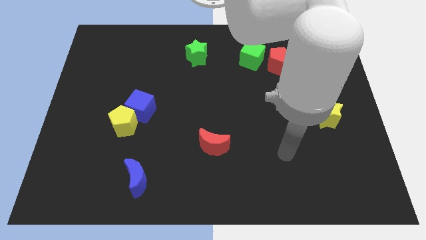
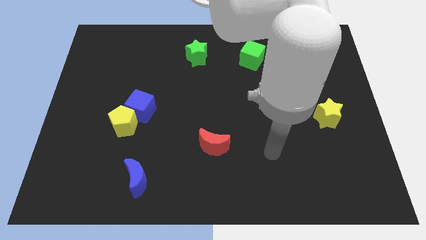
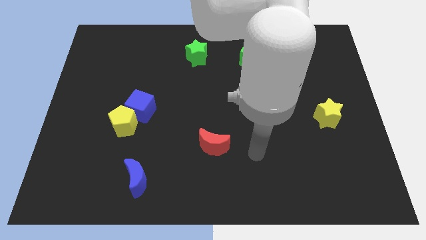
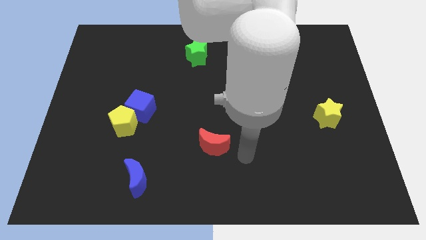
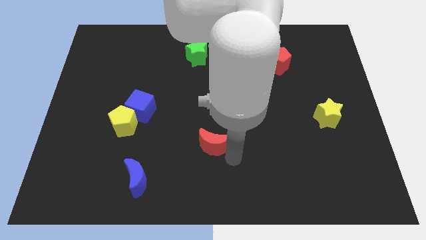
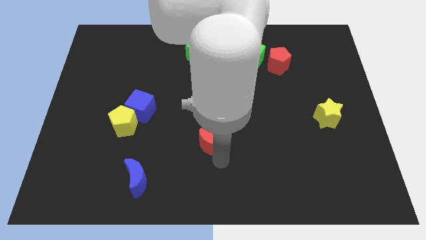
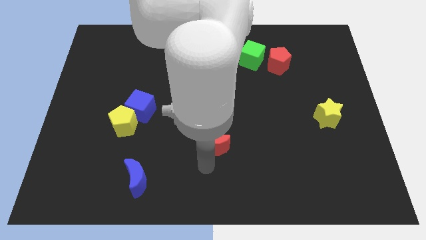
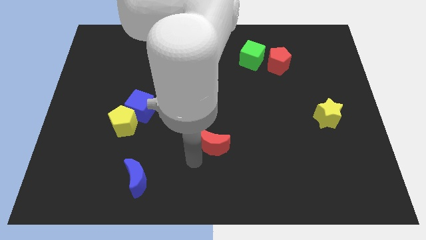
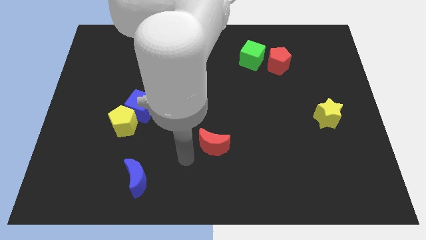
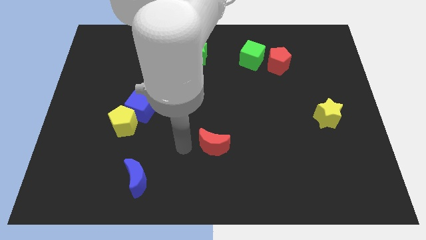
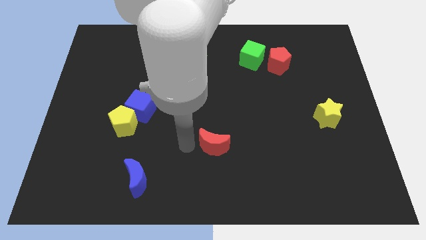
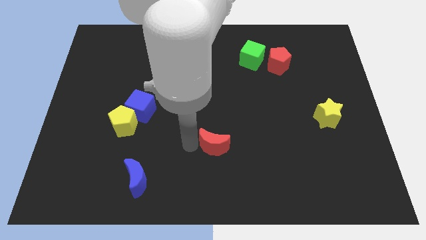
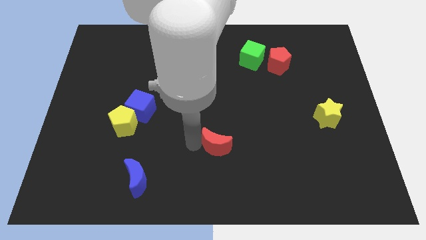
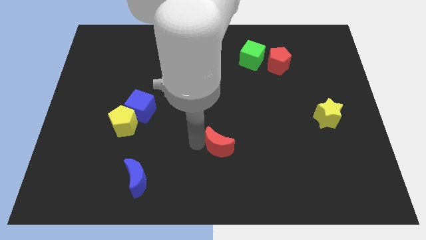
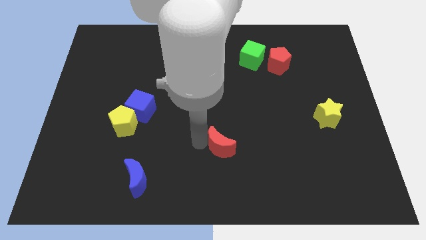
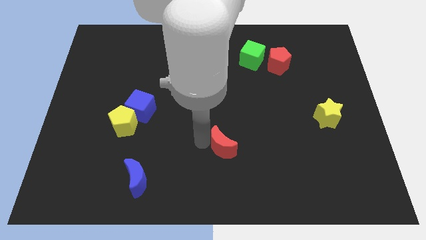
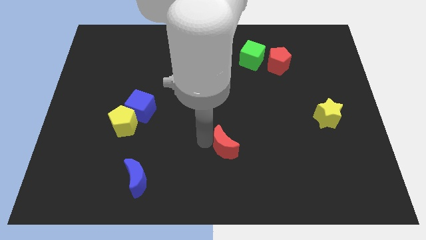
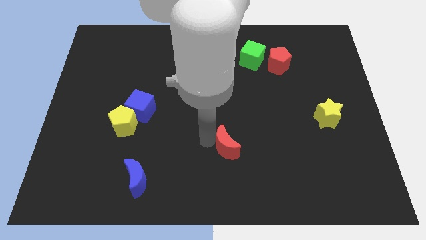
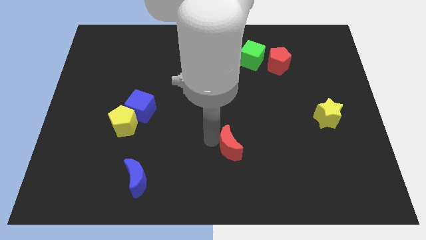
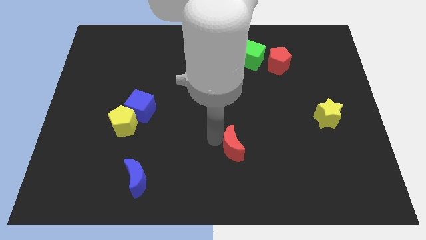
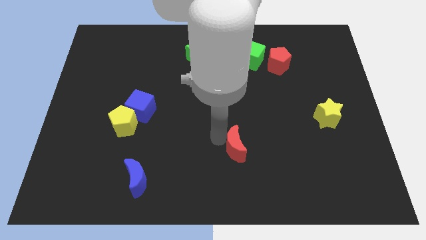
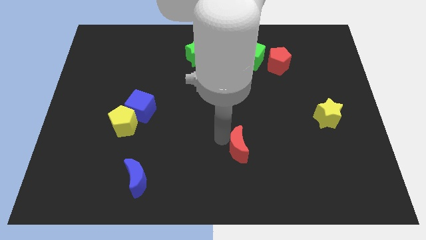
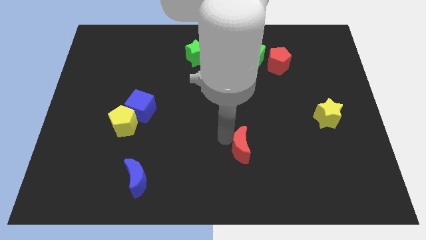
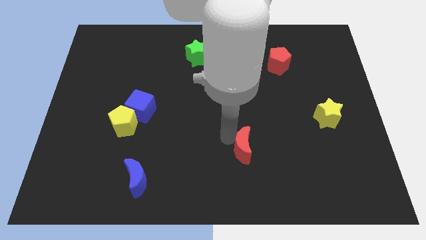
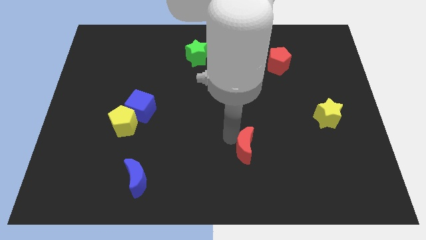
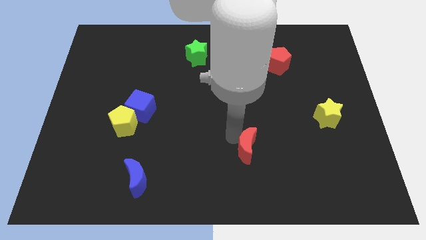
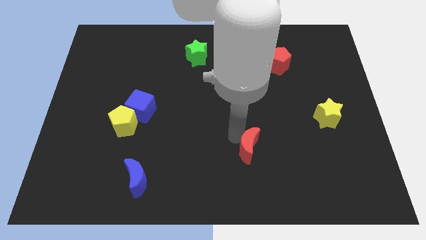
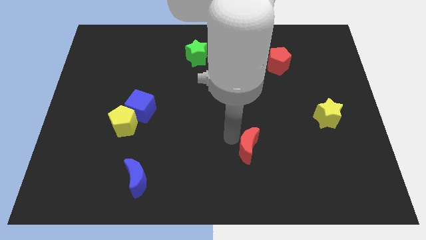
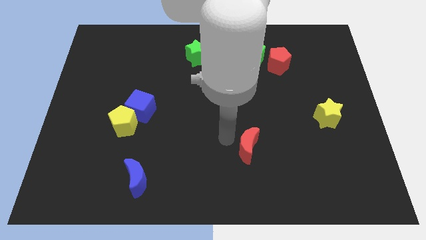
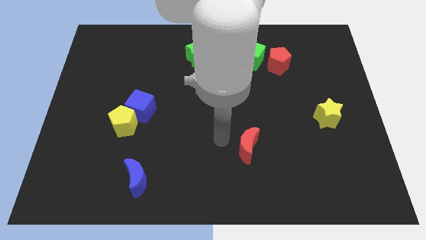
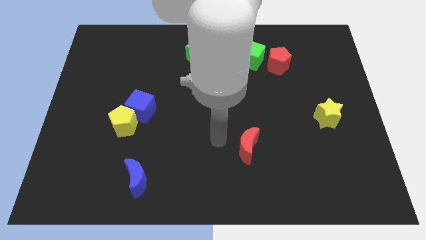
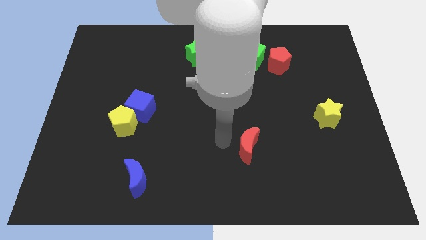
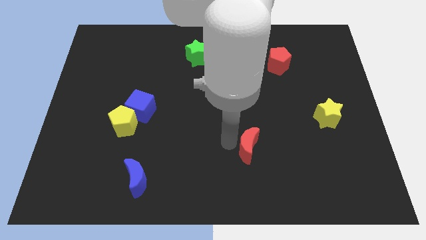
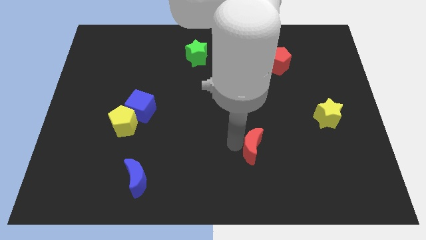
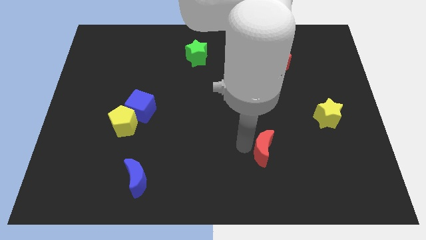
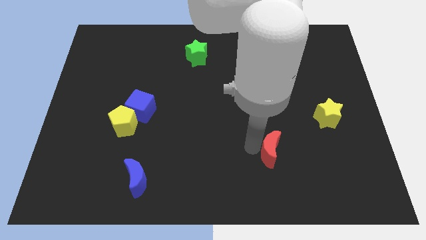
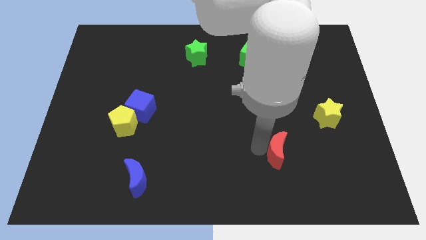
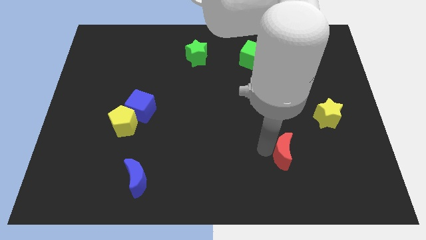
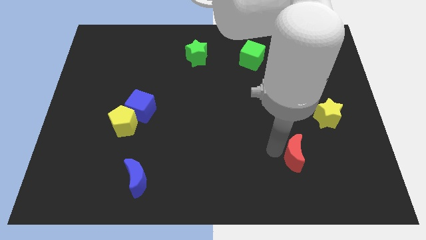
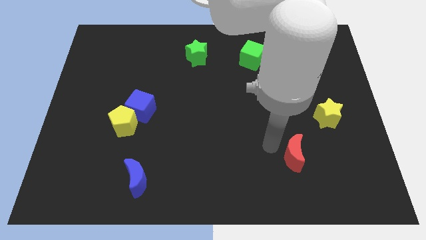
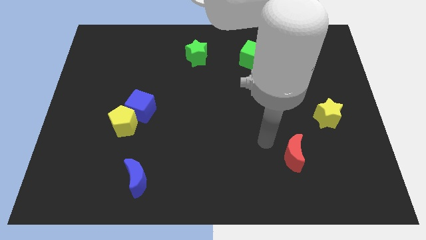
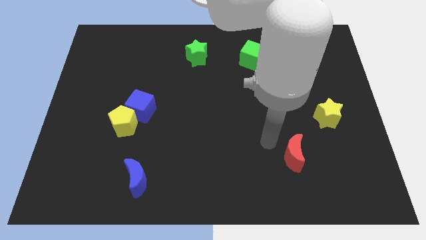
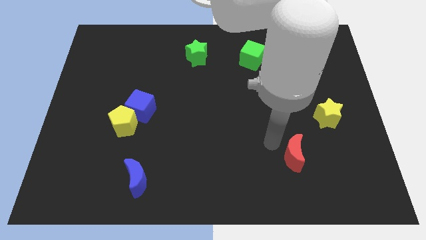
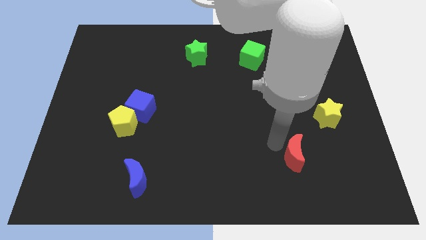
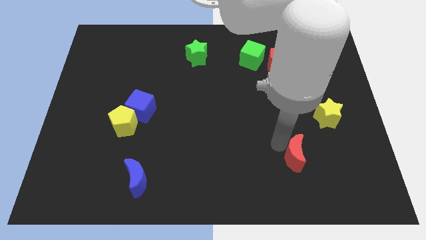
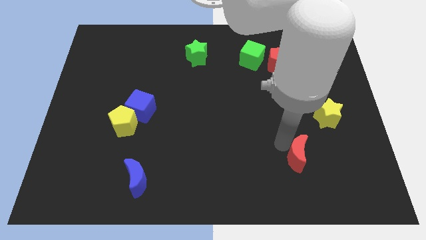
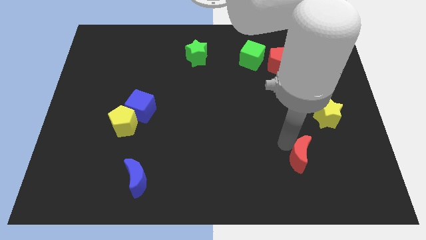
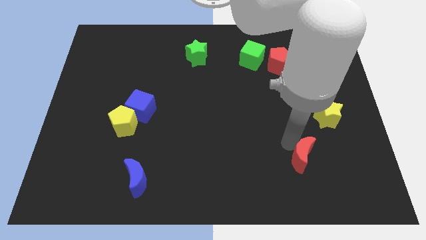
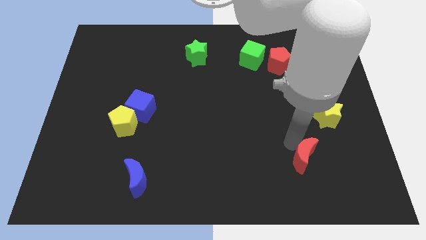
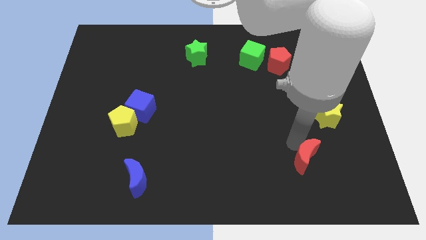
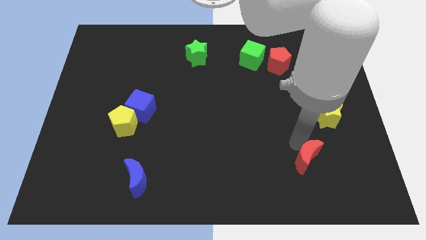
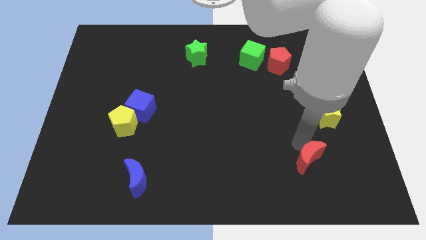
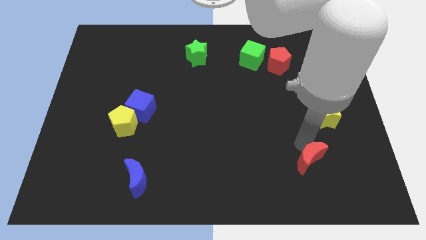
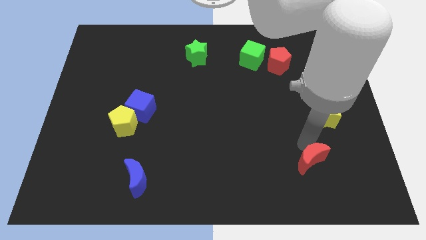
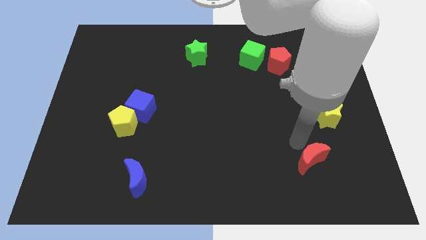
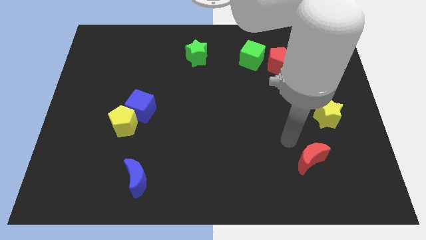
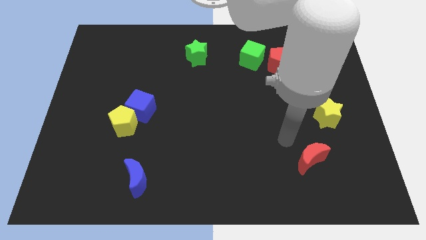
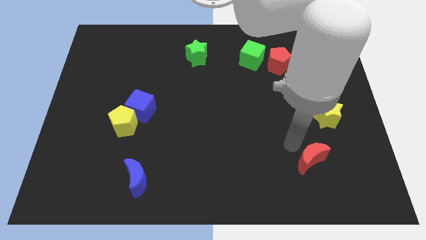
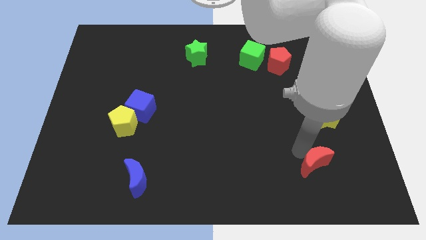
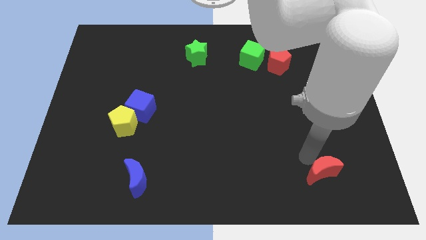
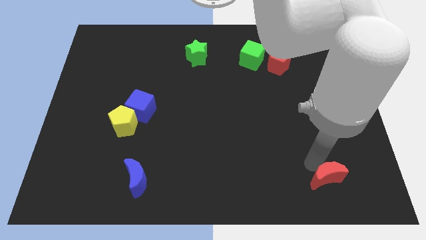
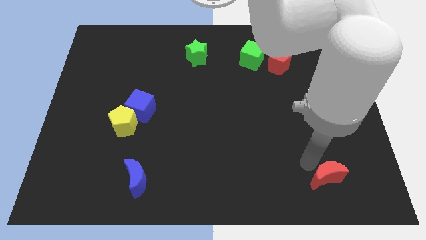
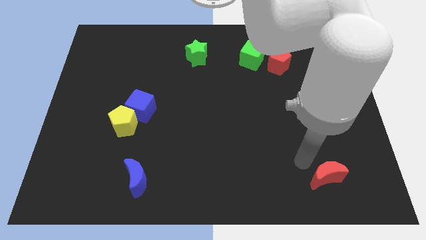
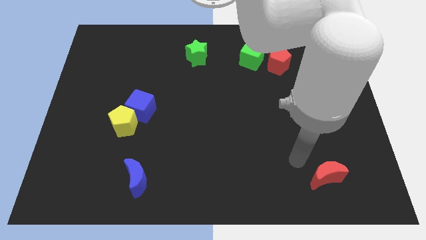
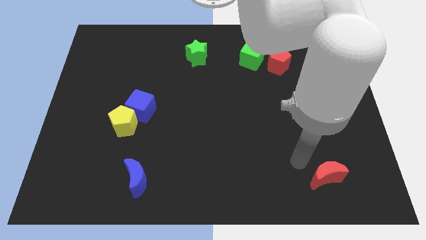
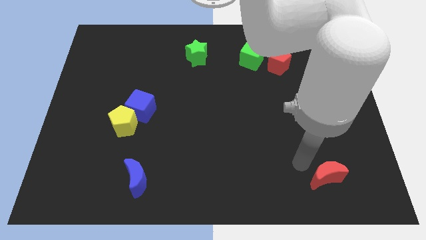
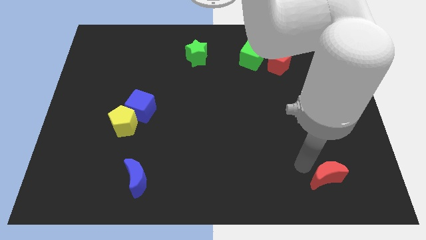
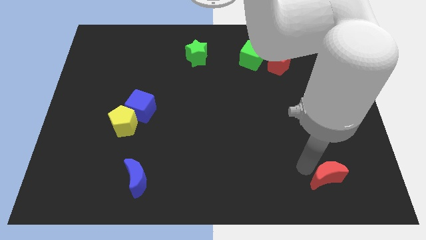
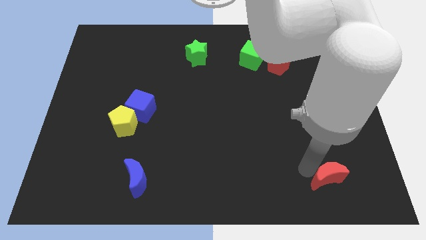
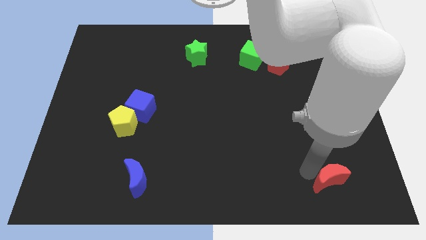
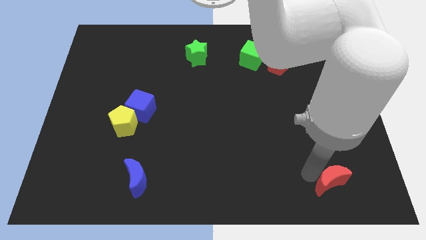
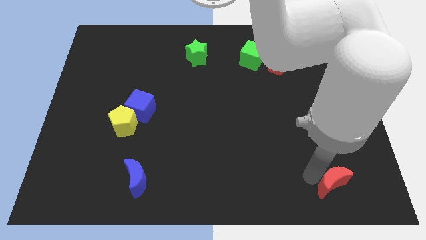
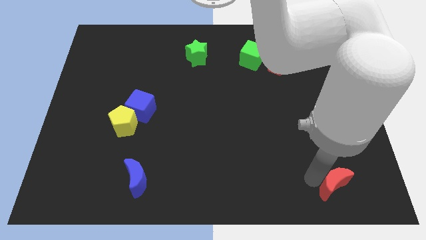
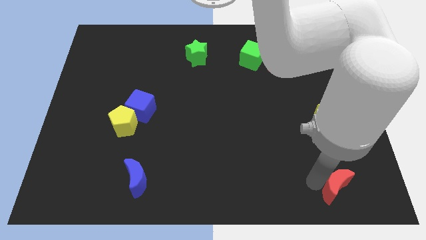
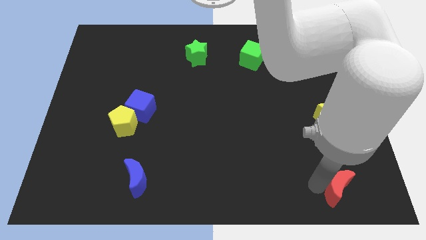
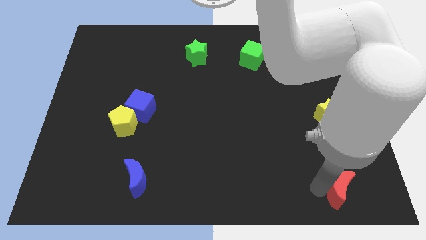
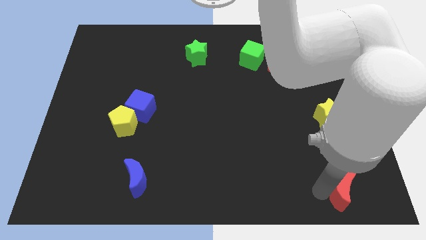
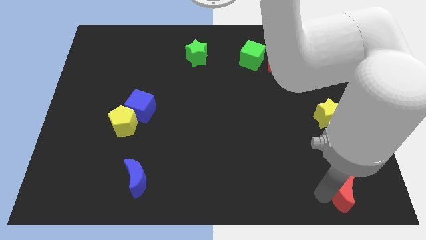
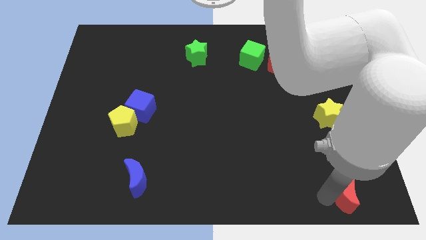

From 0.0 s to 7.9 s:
put the red moon to the bottom right
